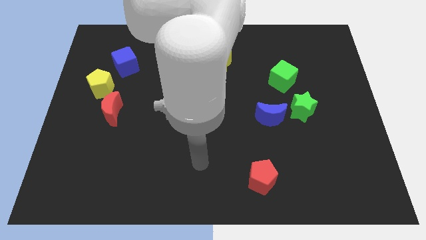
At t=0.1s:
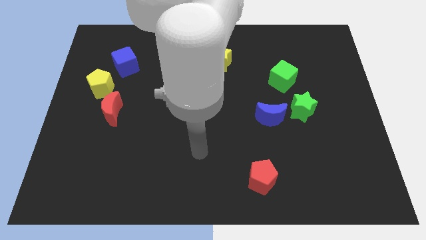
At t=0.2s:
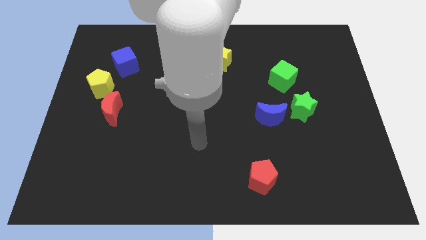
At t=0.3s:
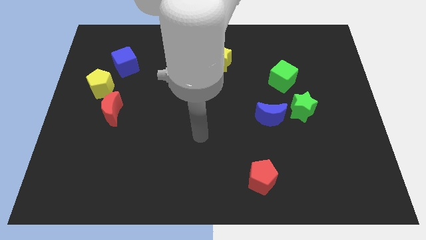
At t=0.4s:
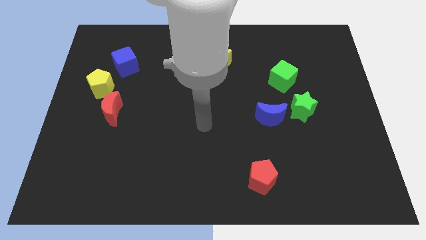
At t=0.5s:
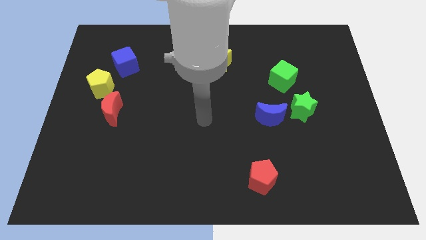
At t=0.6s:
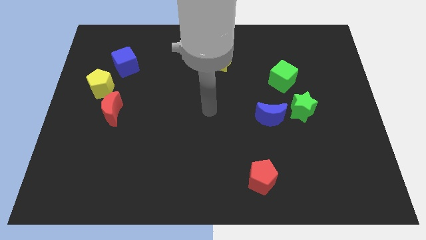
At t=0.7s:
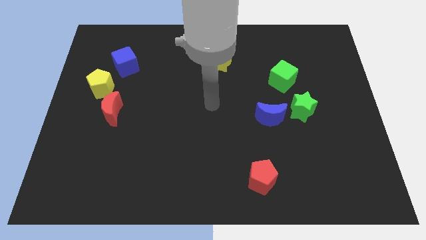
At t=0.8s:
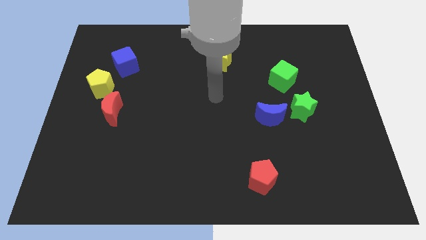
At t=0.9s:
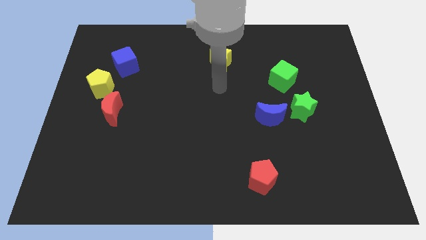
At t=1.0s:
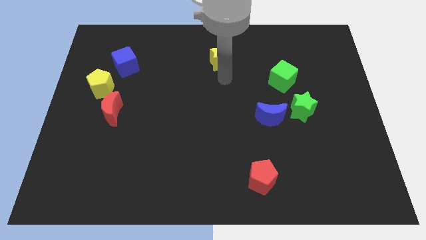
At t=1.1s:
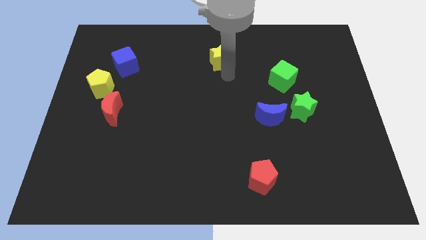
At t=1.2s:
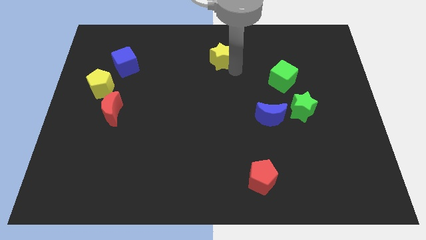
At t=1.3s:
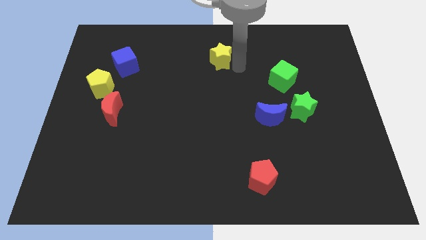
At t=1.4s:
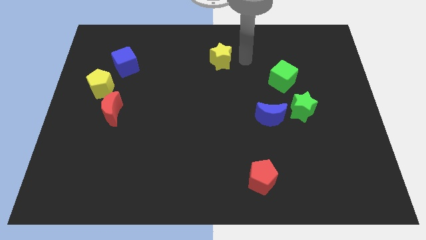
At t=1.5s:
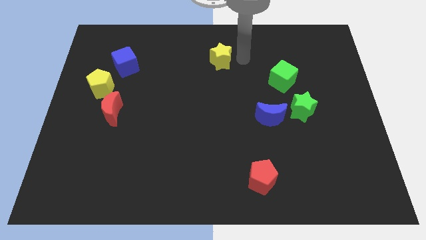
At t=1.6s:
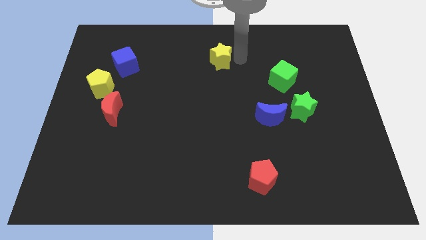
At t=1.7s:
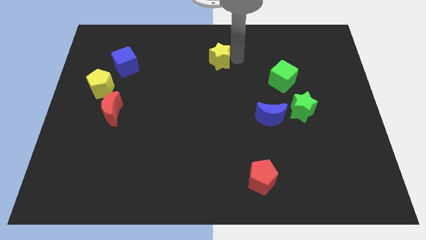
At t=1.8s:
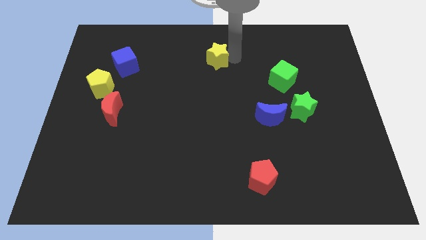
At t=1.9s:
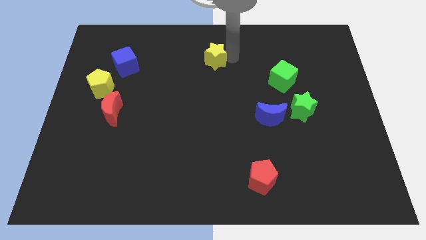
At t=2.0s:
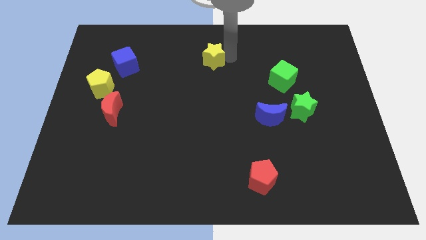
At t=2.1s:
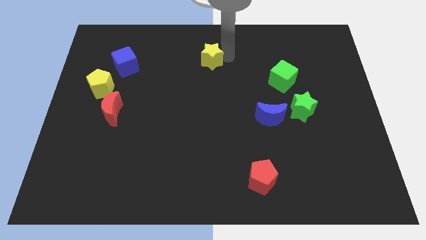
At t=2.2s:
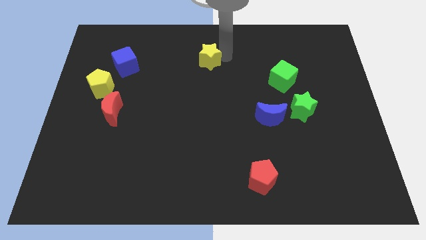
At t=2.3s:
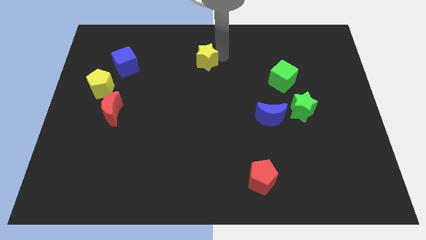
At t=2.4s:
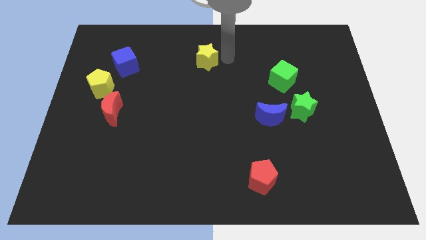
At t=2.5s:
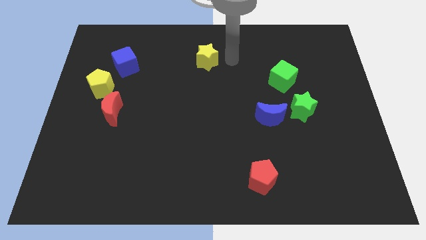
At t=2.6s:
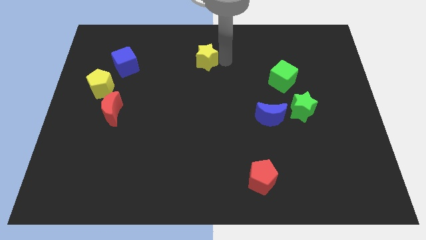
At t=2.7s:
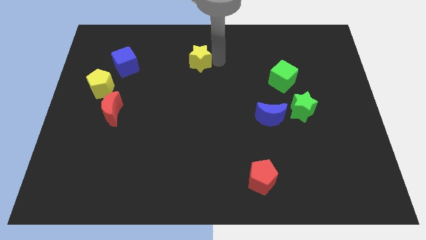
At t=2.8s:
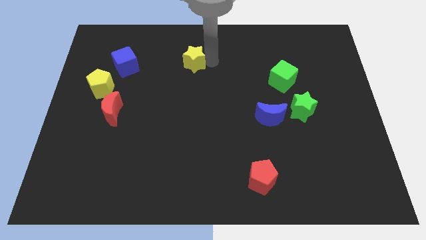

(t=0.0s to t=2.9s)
slide the yellow star slightly to the left

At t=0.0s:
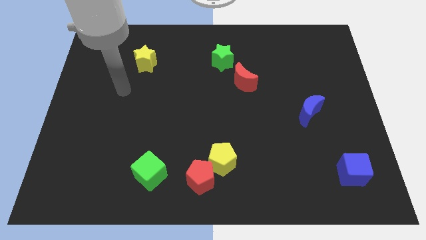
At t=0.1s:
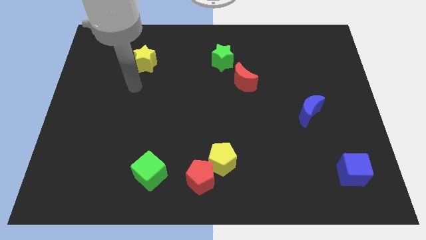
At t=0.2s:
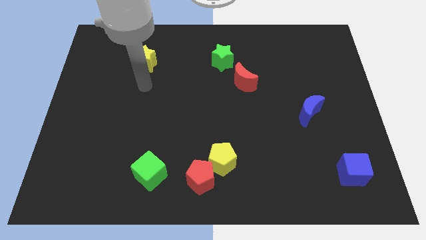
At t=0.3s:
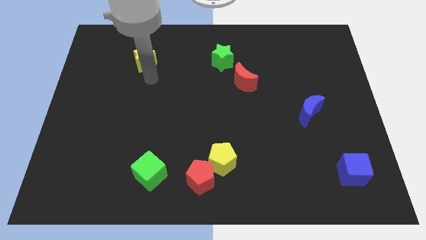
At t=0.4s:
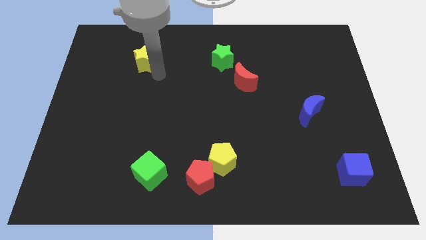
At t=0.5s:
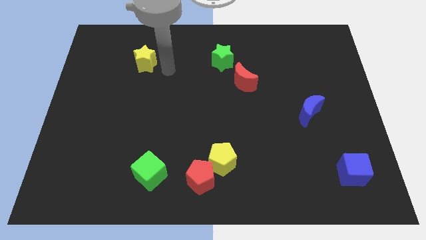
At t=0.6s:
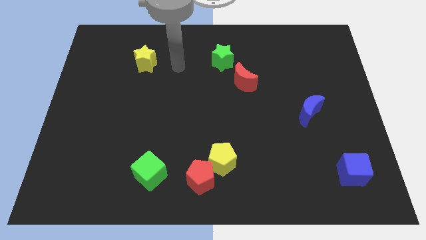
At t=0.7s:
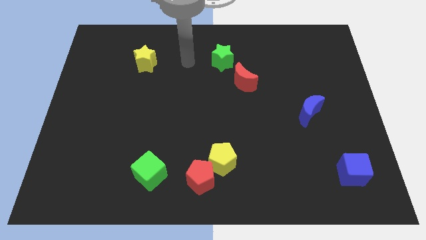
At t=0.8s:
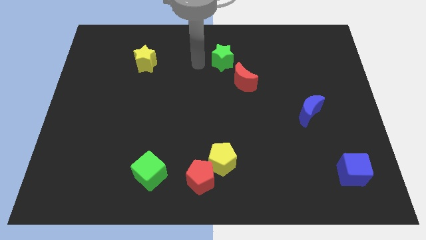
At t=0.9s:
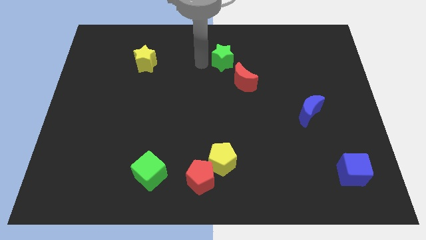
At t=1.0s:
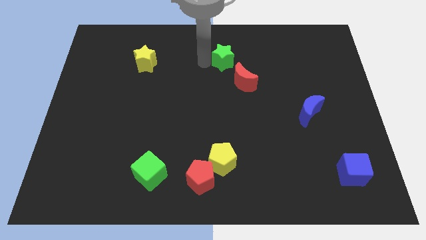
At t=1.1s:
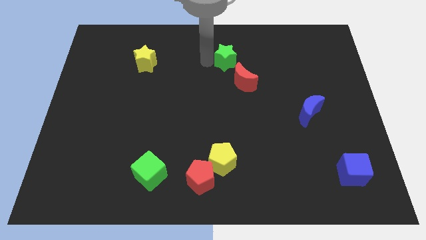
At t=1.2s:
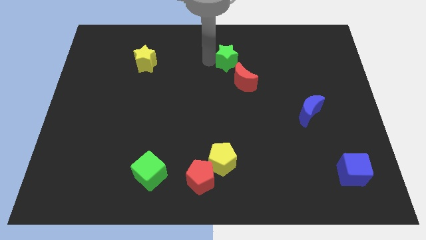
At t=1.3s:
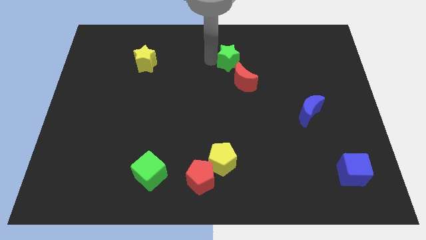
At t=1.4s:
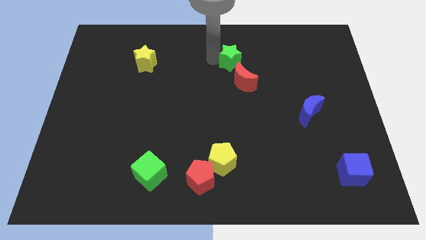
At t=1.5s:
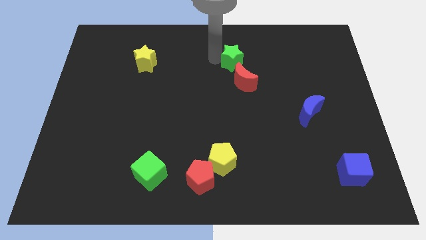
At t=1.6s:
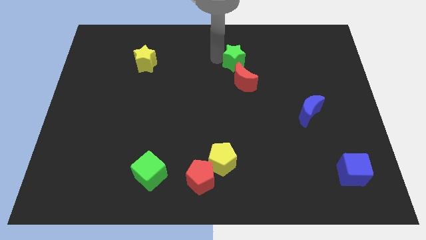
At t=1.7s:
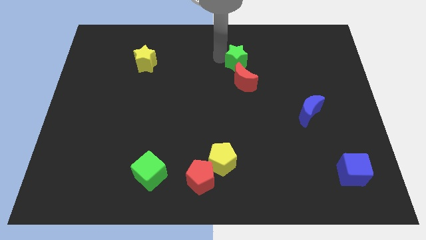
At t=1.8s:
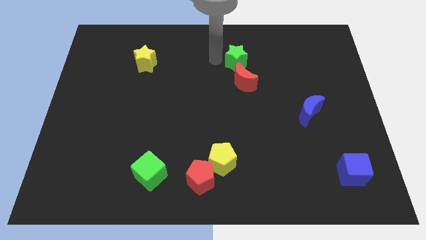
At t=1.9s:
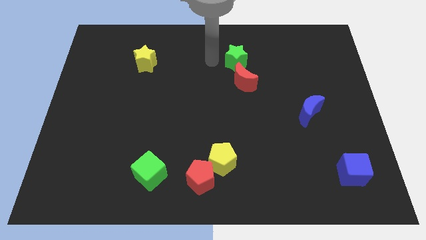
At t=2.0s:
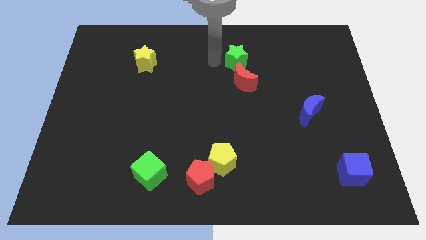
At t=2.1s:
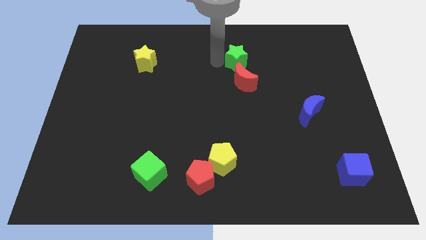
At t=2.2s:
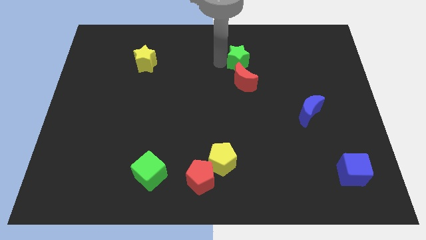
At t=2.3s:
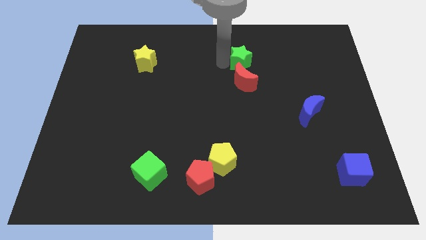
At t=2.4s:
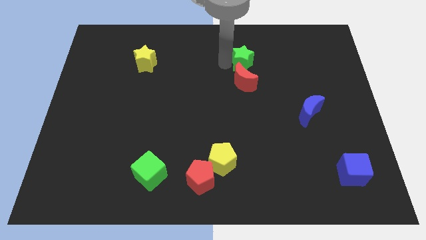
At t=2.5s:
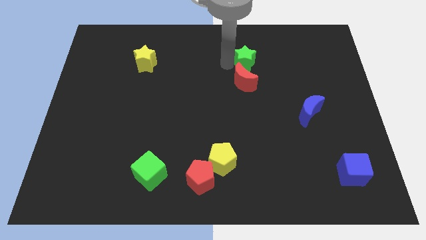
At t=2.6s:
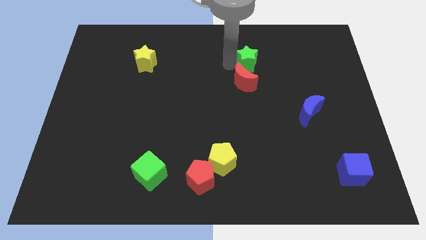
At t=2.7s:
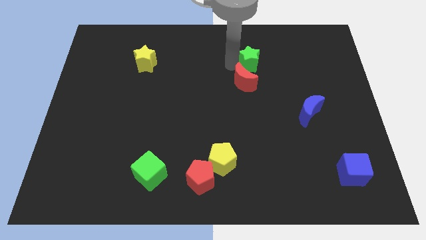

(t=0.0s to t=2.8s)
slightly move the green star right

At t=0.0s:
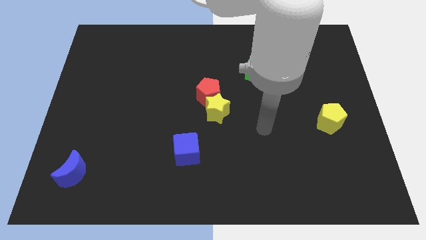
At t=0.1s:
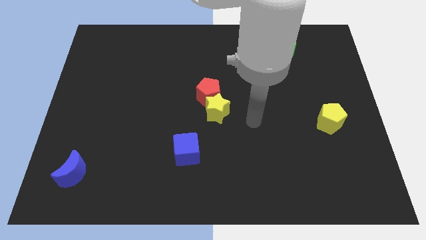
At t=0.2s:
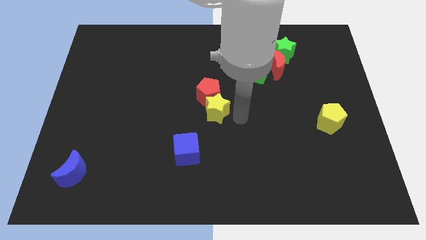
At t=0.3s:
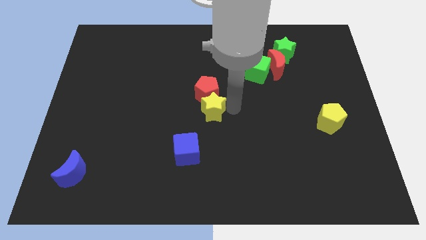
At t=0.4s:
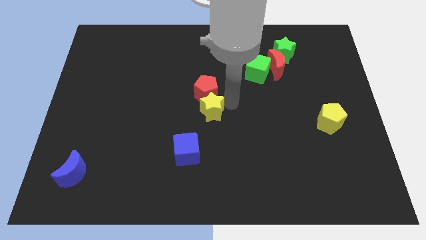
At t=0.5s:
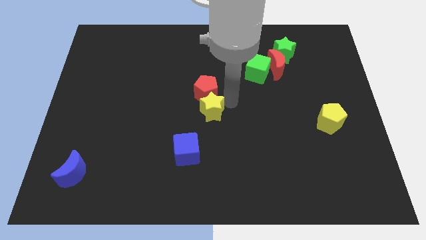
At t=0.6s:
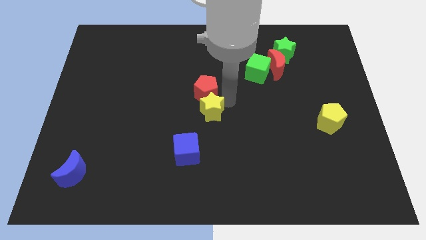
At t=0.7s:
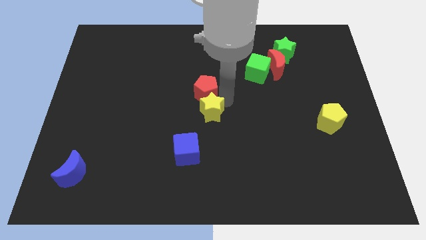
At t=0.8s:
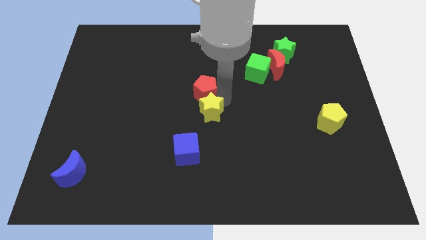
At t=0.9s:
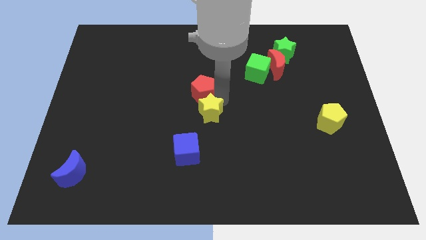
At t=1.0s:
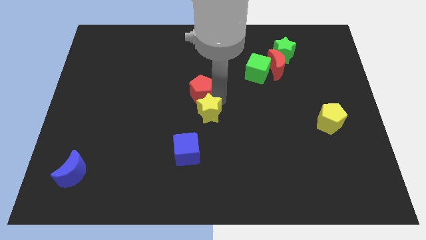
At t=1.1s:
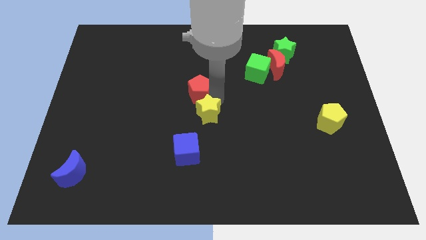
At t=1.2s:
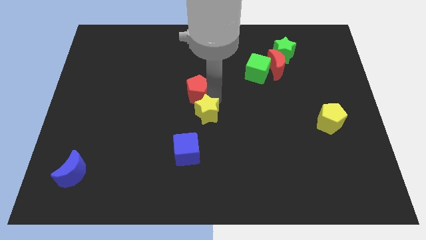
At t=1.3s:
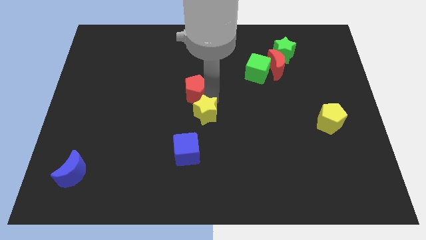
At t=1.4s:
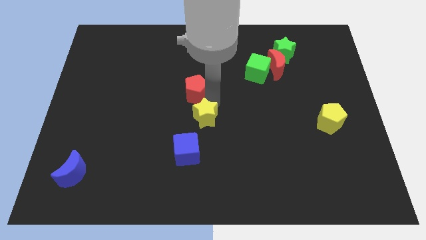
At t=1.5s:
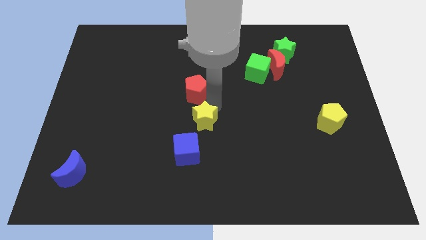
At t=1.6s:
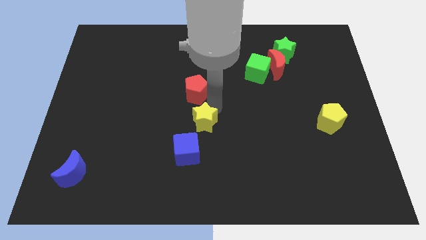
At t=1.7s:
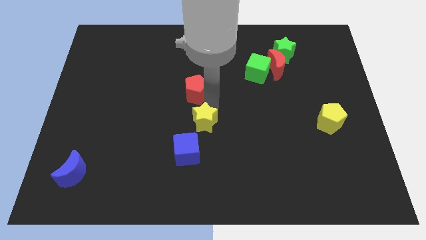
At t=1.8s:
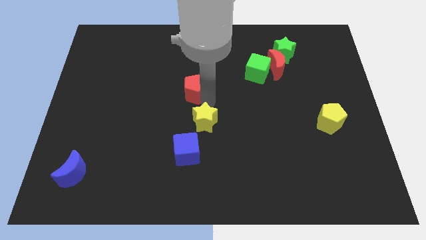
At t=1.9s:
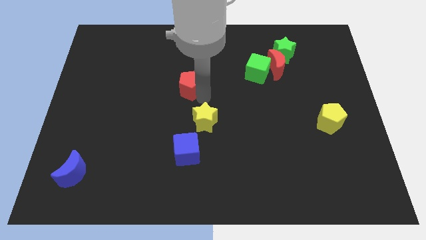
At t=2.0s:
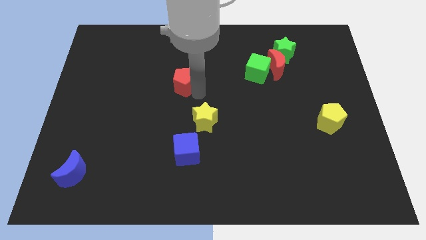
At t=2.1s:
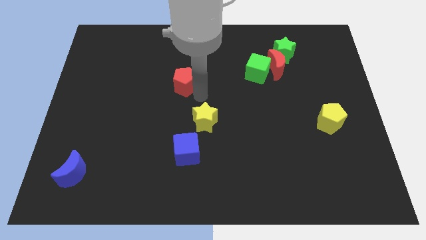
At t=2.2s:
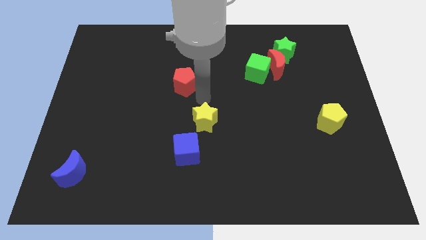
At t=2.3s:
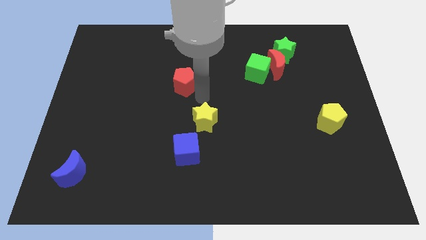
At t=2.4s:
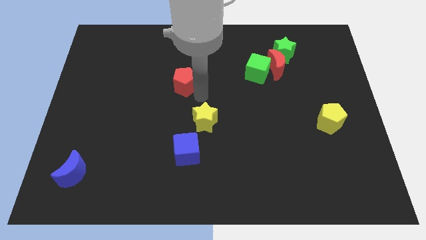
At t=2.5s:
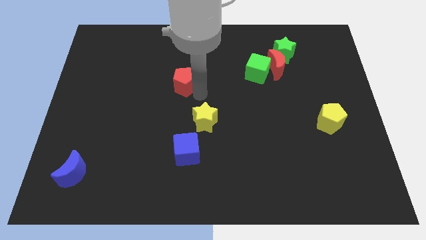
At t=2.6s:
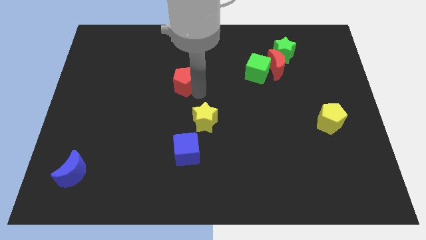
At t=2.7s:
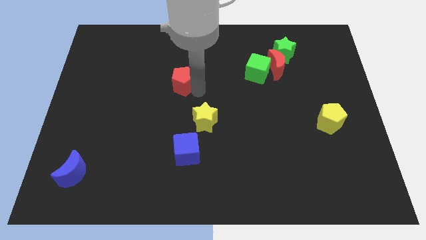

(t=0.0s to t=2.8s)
slightly slide the red pentagon diagonally up and to the left
